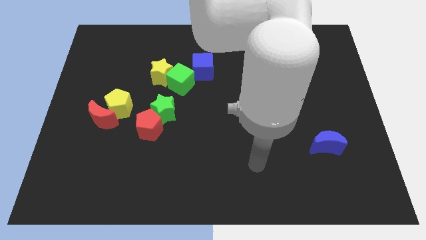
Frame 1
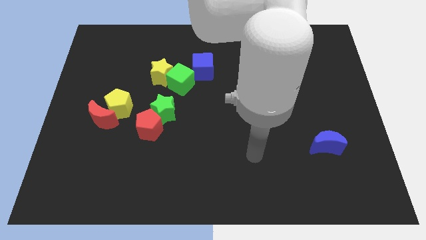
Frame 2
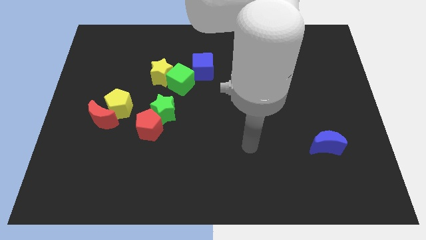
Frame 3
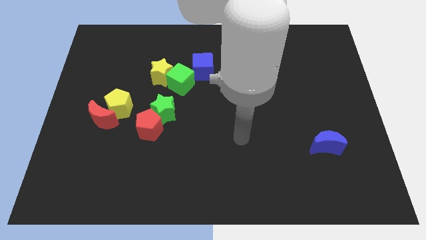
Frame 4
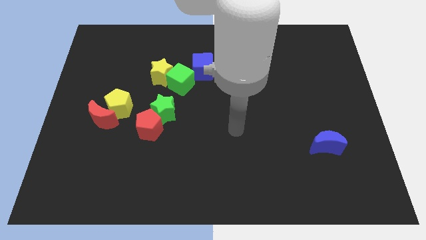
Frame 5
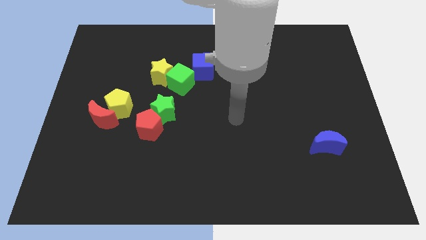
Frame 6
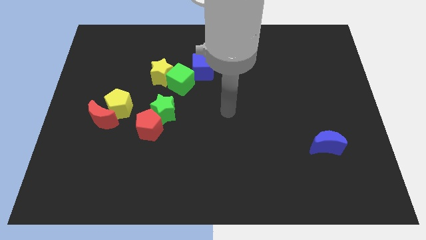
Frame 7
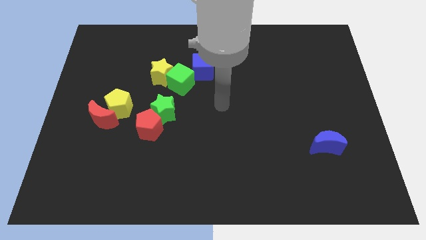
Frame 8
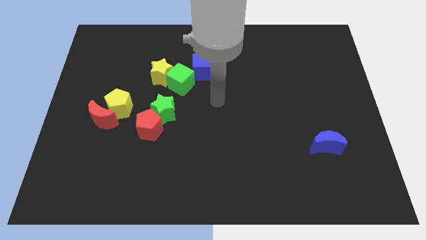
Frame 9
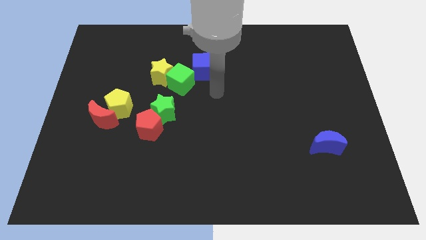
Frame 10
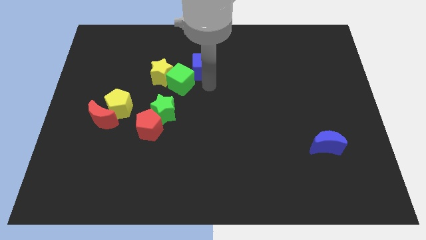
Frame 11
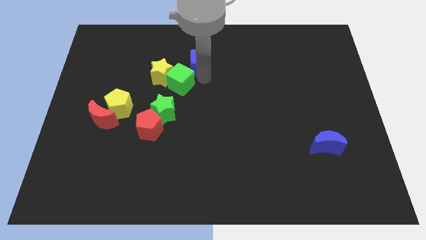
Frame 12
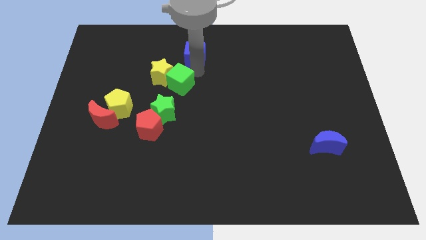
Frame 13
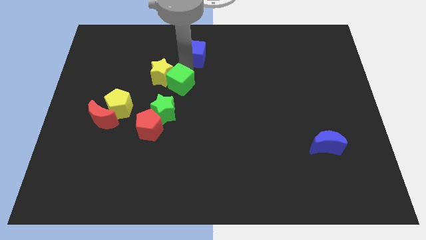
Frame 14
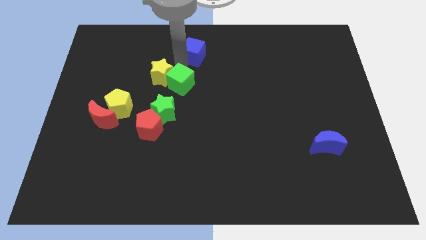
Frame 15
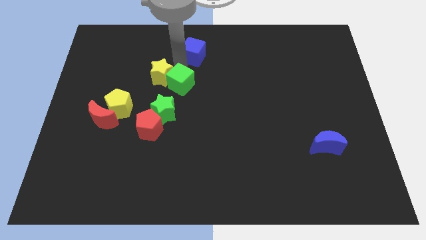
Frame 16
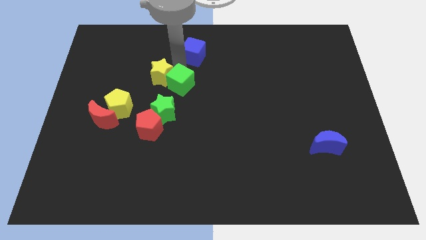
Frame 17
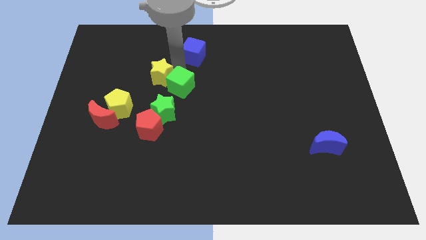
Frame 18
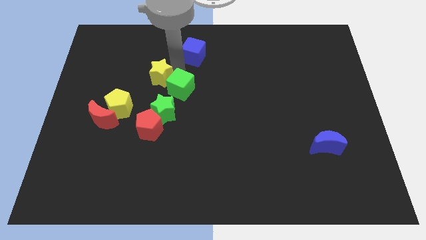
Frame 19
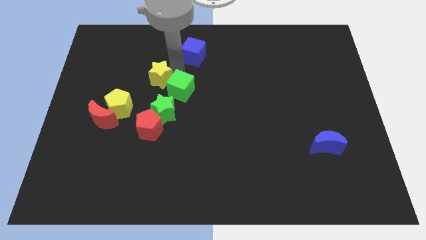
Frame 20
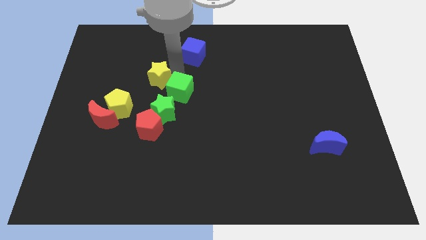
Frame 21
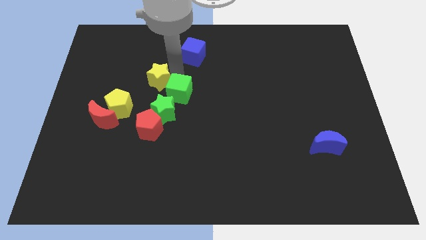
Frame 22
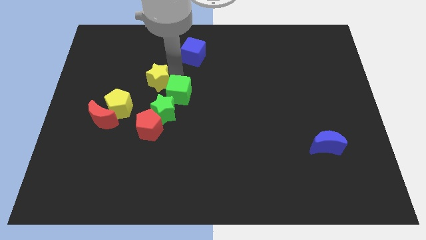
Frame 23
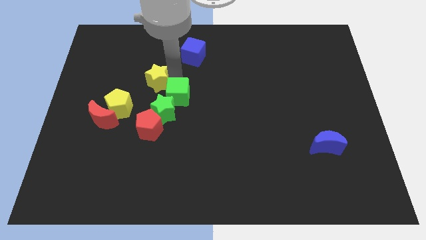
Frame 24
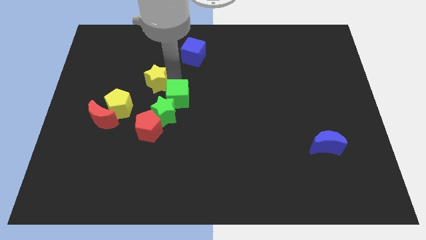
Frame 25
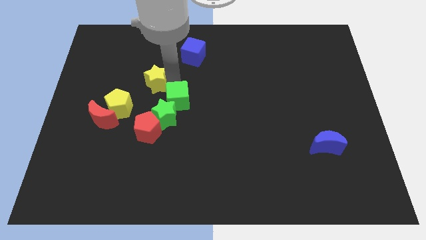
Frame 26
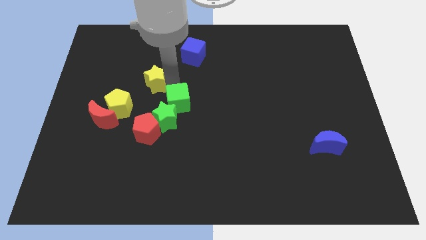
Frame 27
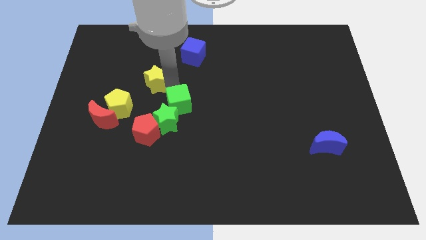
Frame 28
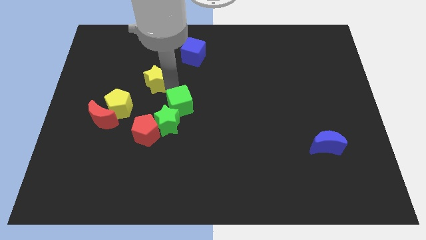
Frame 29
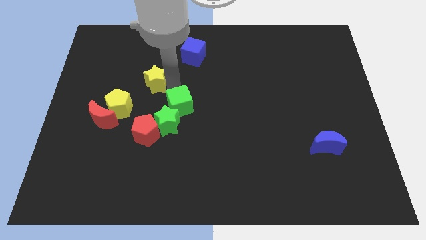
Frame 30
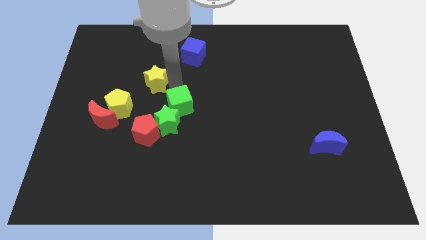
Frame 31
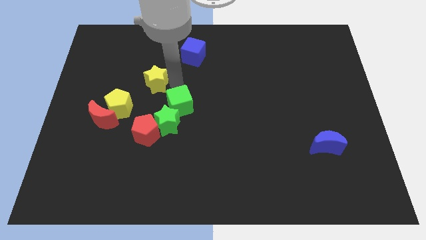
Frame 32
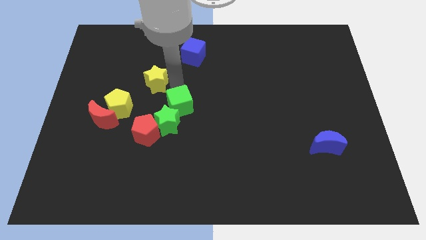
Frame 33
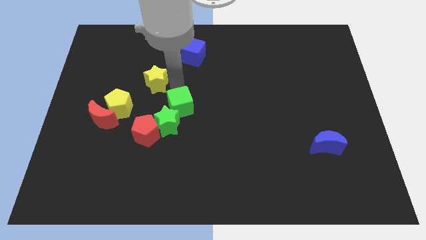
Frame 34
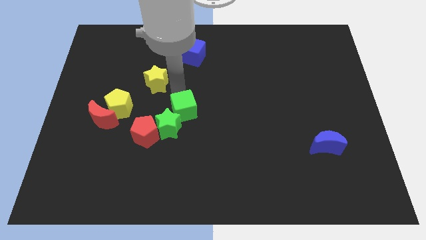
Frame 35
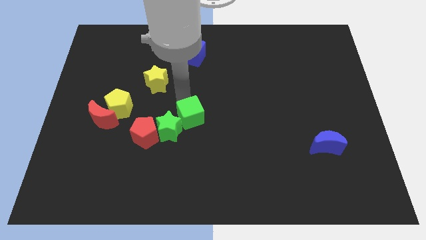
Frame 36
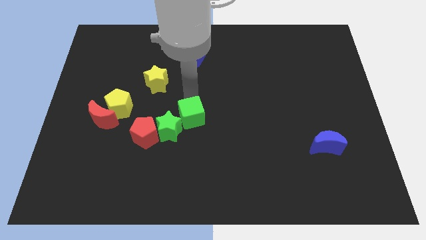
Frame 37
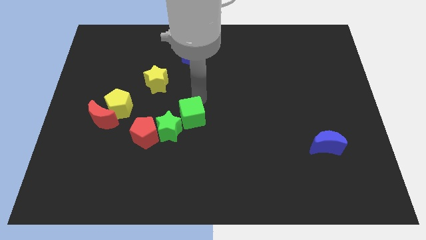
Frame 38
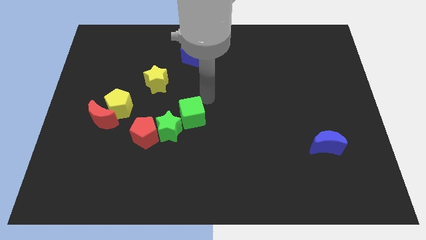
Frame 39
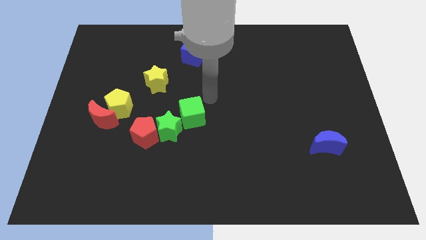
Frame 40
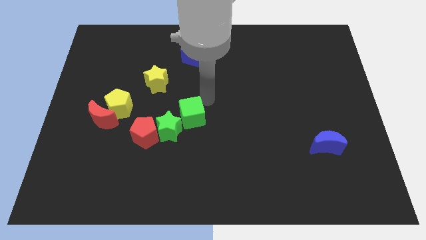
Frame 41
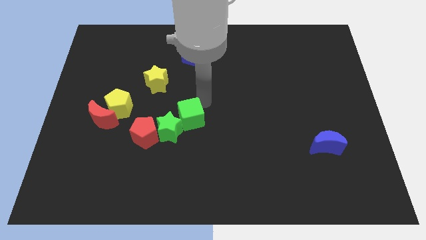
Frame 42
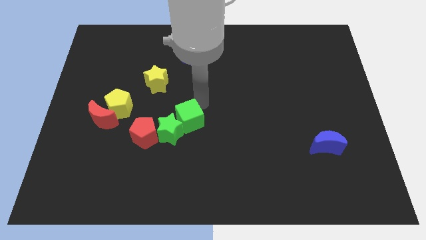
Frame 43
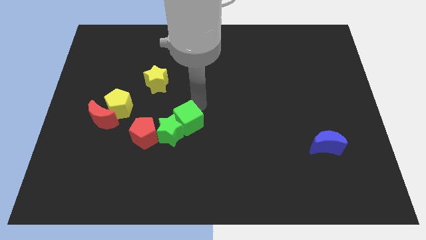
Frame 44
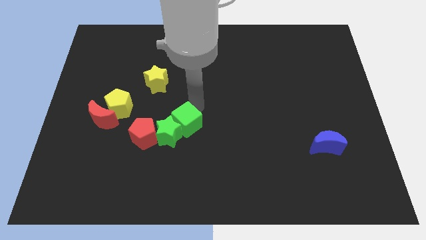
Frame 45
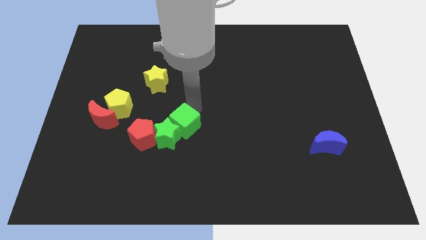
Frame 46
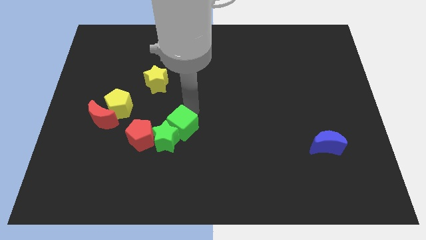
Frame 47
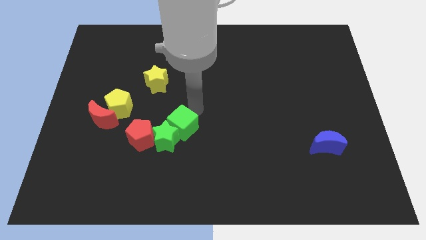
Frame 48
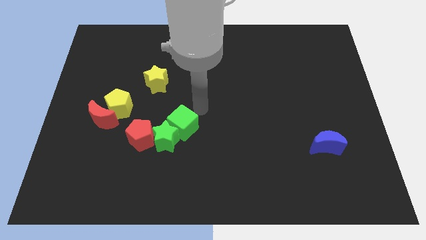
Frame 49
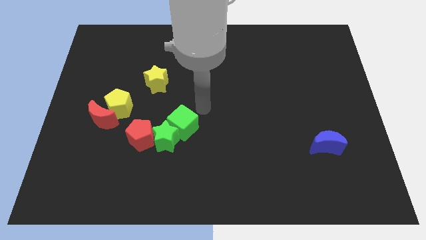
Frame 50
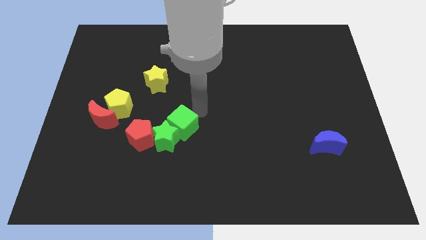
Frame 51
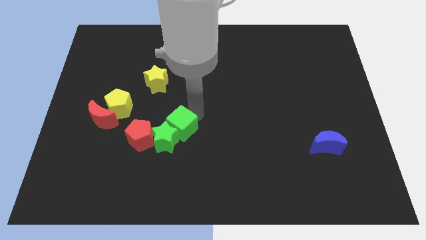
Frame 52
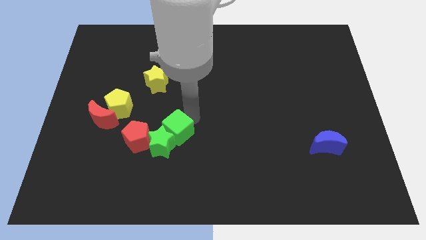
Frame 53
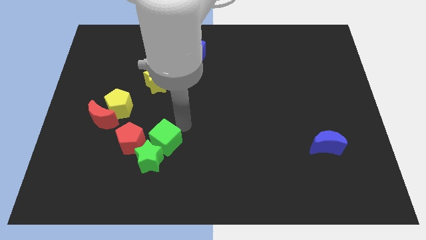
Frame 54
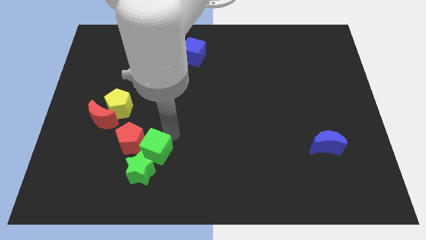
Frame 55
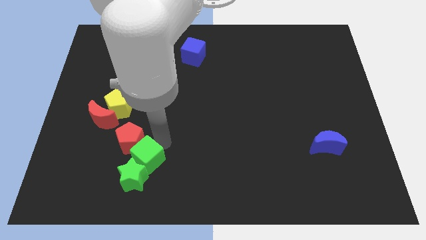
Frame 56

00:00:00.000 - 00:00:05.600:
slide the green cube below the red pentagon

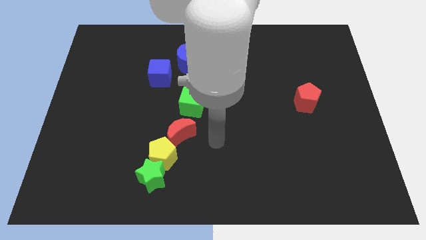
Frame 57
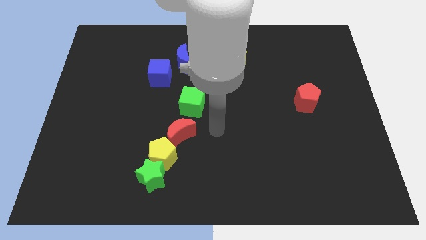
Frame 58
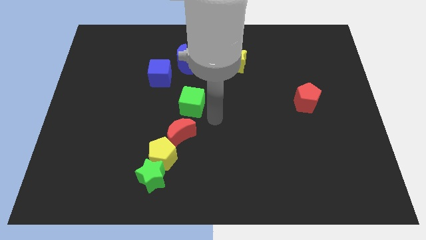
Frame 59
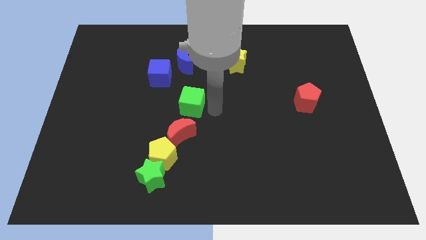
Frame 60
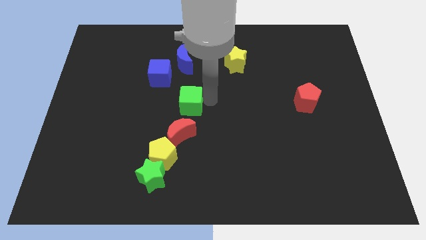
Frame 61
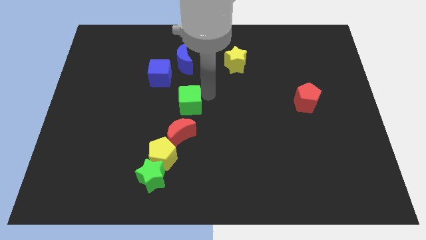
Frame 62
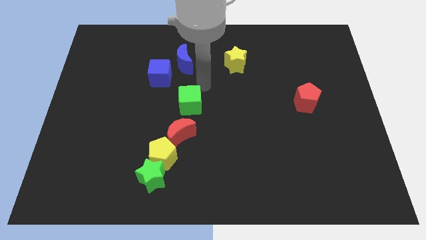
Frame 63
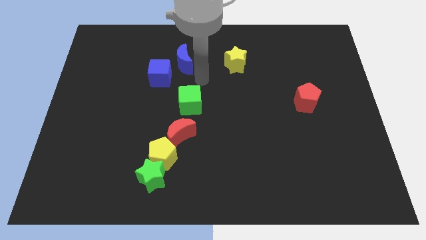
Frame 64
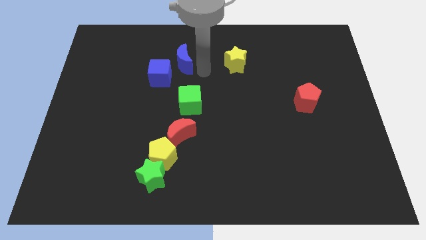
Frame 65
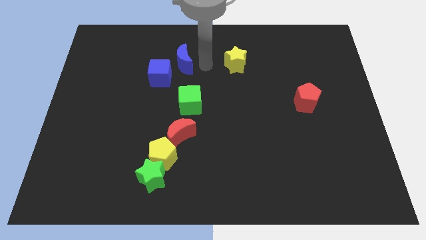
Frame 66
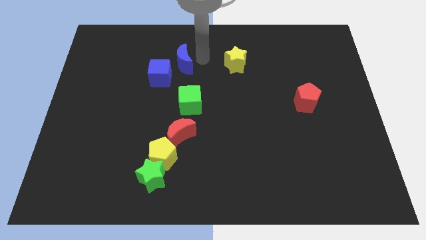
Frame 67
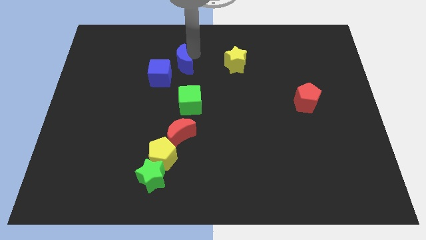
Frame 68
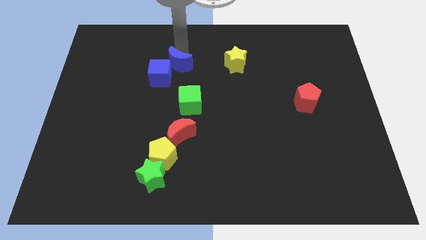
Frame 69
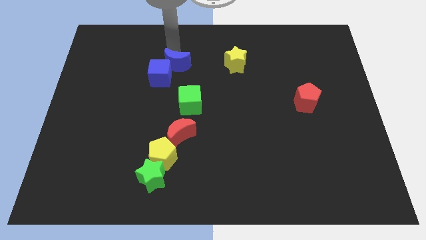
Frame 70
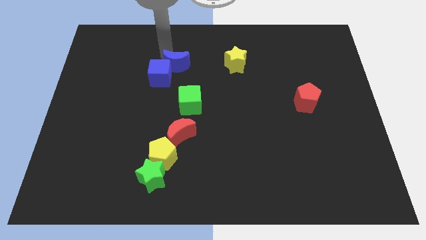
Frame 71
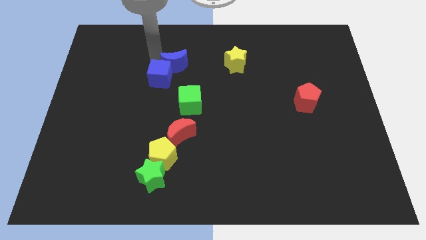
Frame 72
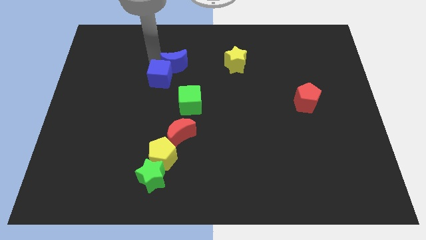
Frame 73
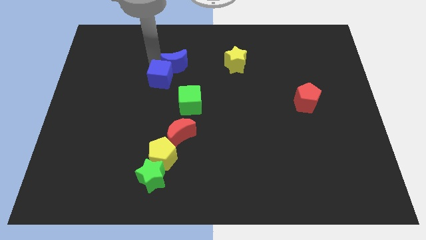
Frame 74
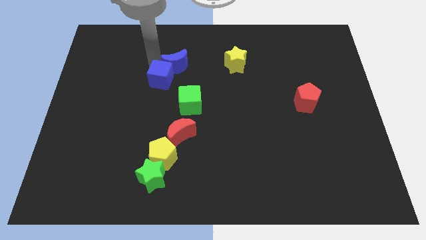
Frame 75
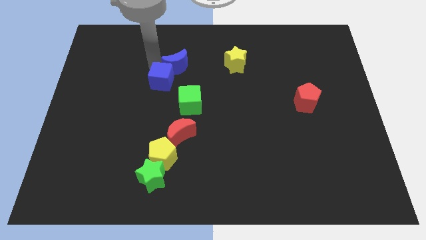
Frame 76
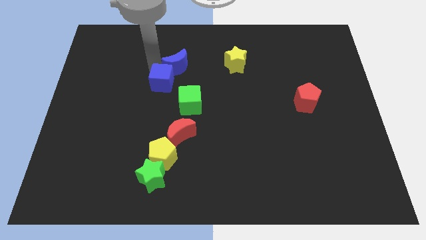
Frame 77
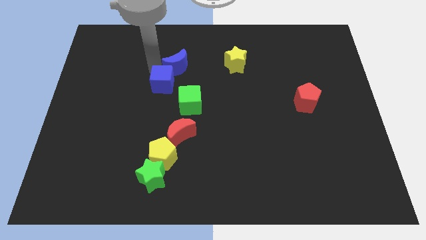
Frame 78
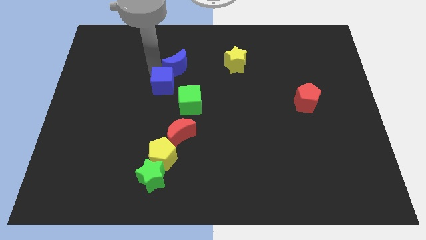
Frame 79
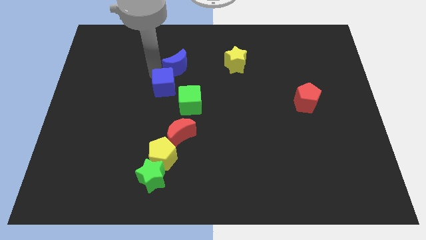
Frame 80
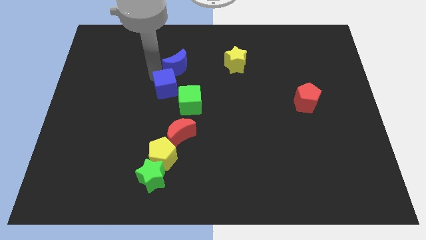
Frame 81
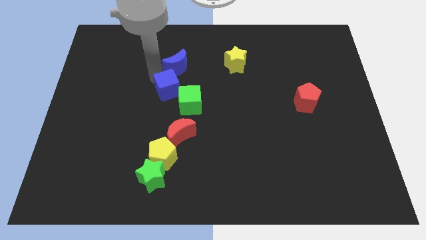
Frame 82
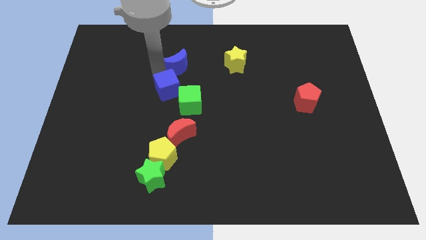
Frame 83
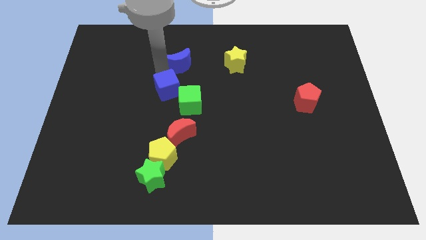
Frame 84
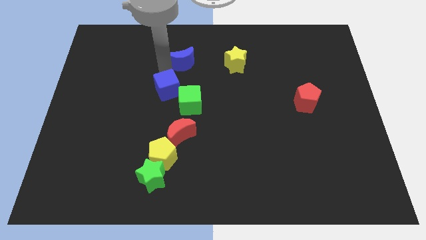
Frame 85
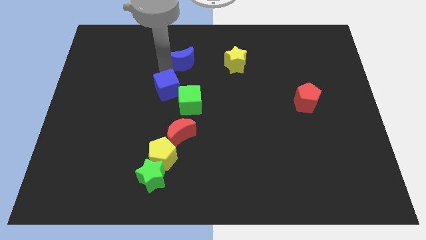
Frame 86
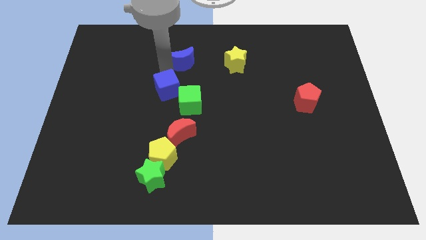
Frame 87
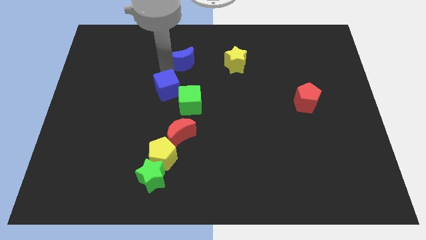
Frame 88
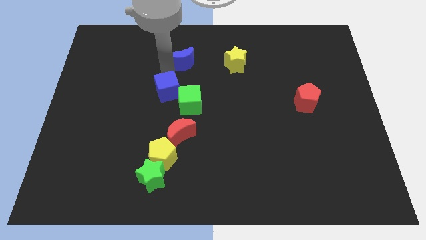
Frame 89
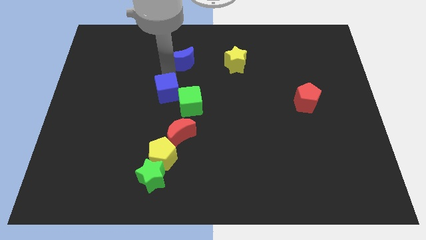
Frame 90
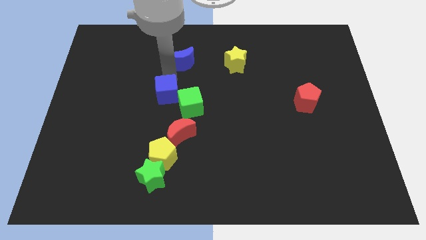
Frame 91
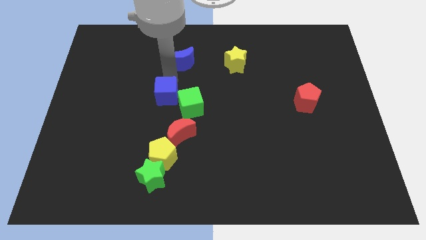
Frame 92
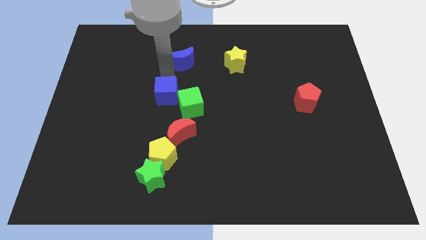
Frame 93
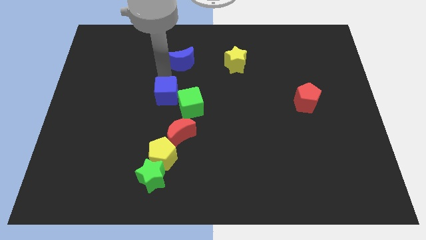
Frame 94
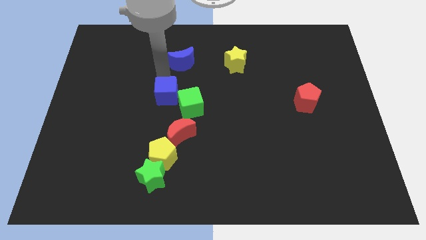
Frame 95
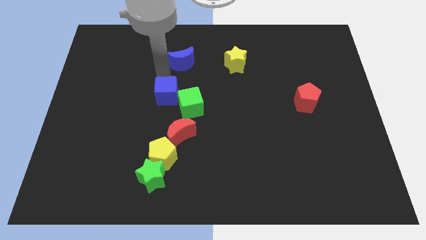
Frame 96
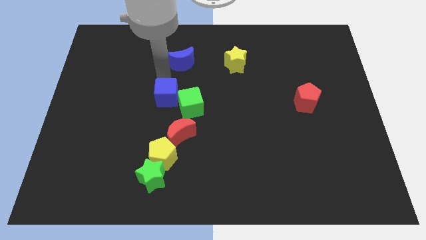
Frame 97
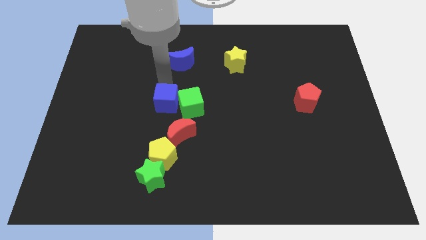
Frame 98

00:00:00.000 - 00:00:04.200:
push the blue cube to the top side of the yellow pentagon
